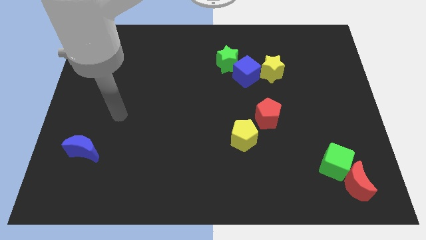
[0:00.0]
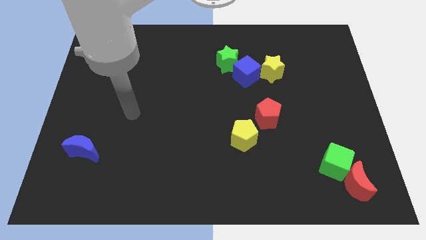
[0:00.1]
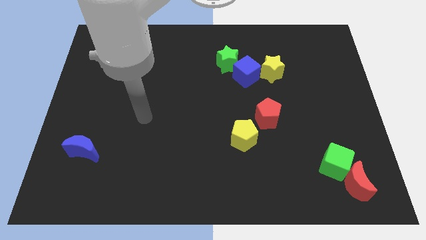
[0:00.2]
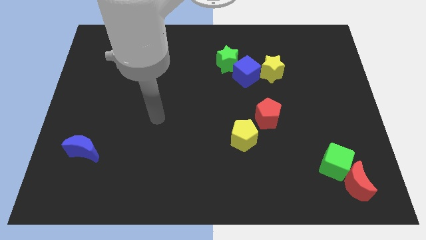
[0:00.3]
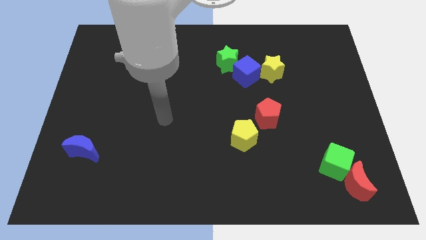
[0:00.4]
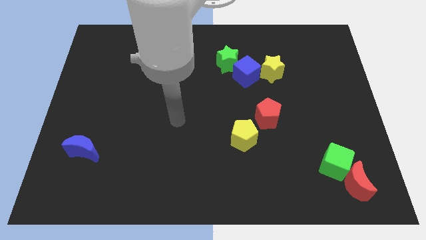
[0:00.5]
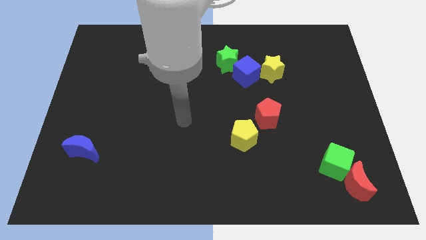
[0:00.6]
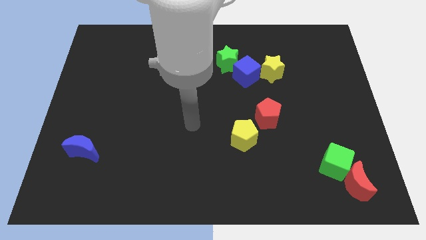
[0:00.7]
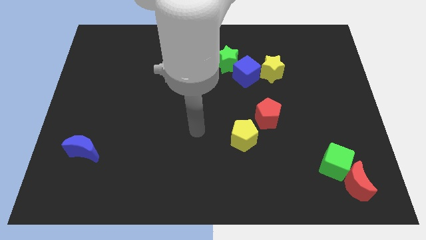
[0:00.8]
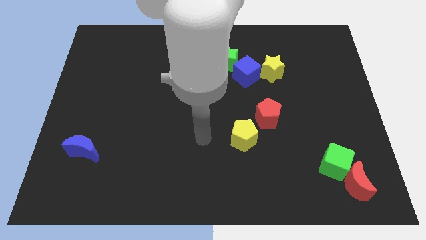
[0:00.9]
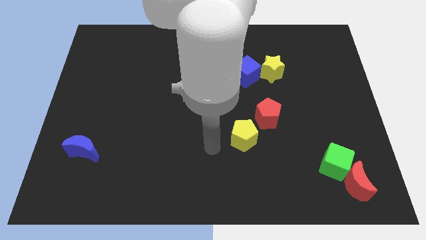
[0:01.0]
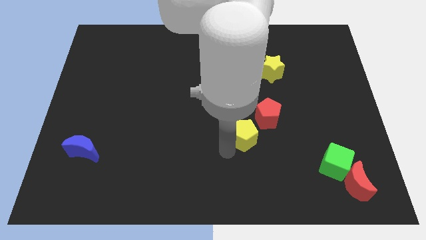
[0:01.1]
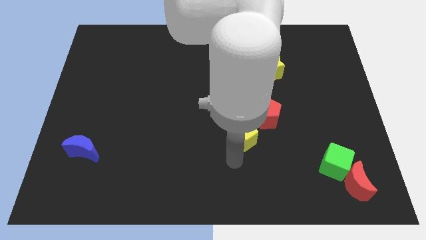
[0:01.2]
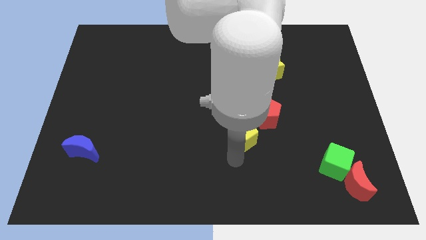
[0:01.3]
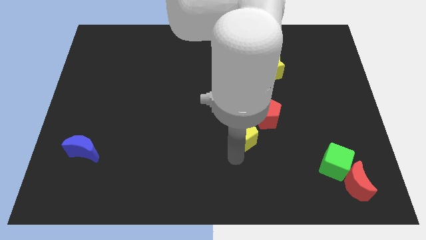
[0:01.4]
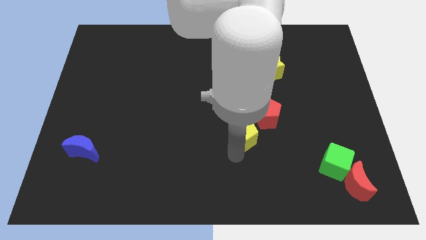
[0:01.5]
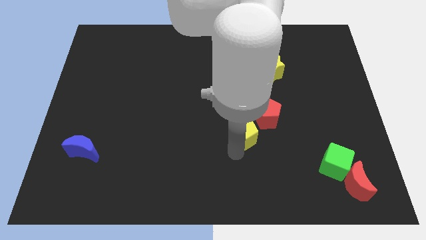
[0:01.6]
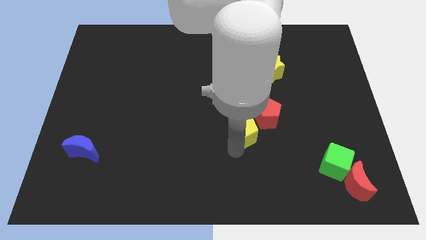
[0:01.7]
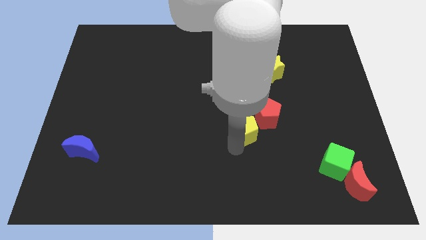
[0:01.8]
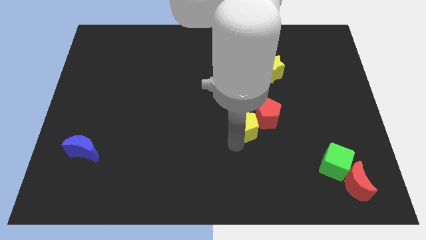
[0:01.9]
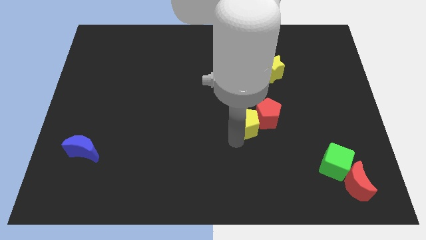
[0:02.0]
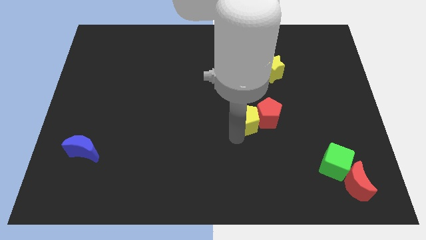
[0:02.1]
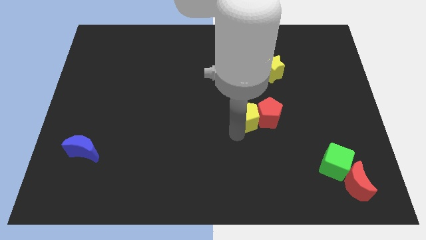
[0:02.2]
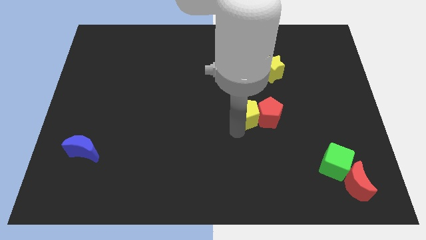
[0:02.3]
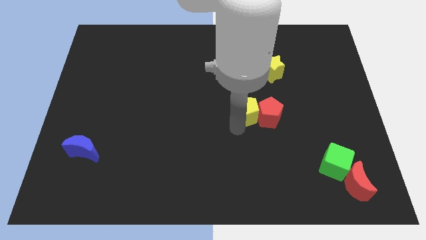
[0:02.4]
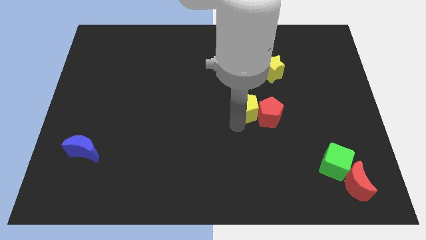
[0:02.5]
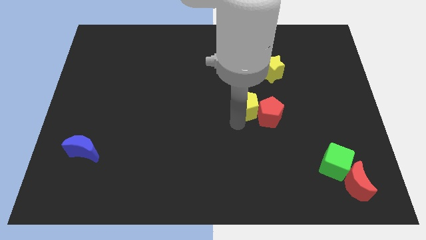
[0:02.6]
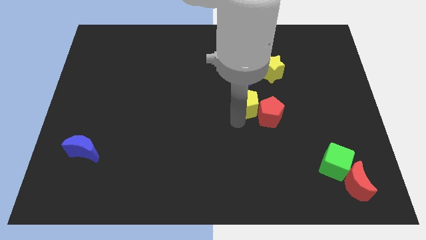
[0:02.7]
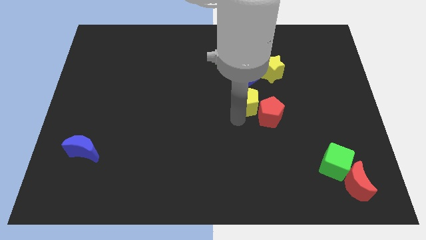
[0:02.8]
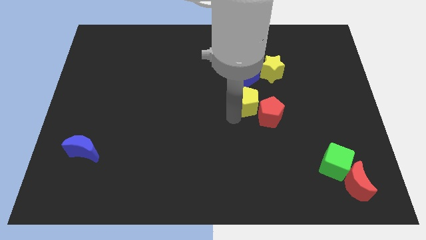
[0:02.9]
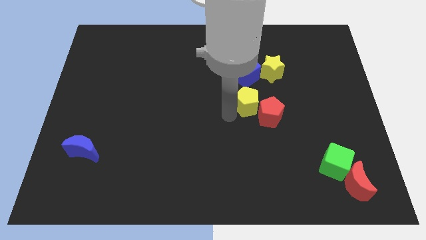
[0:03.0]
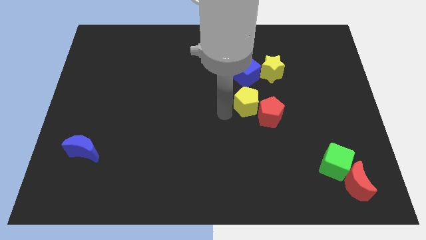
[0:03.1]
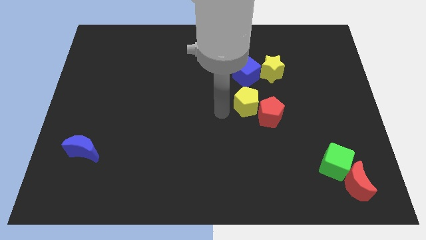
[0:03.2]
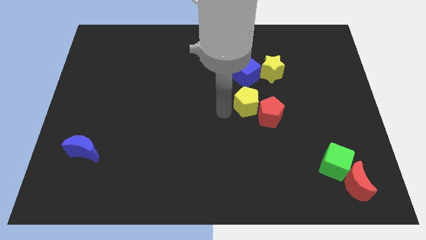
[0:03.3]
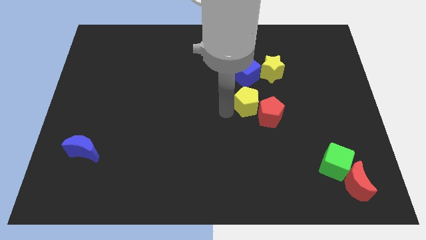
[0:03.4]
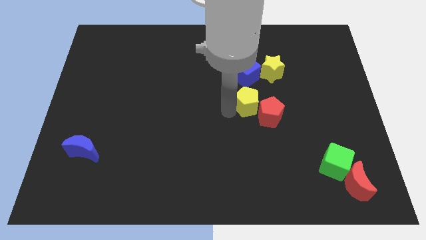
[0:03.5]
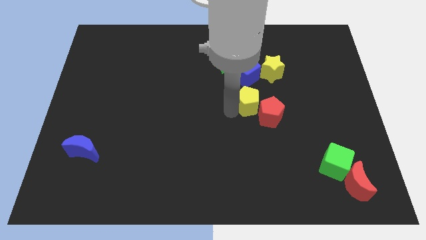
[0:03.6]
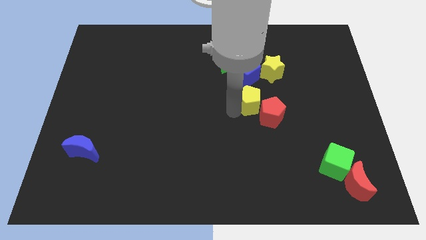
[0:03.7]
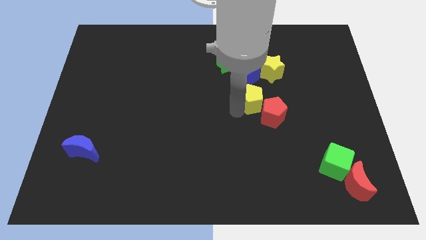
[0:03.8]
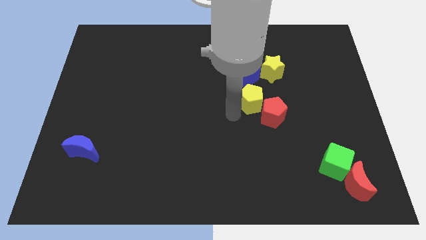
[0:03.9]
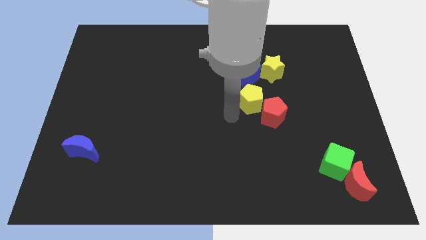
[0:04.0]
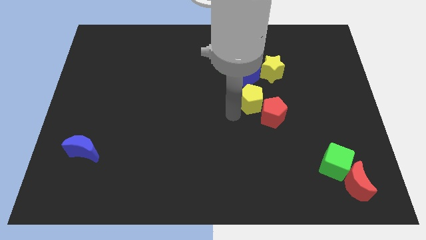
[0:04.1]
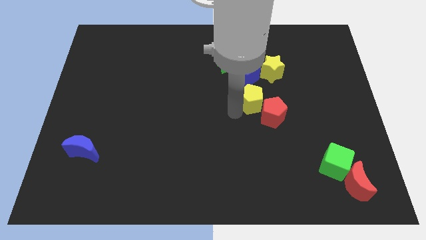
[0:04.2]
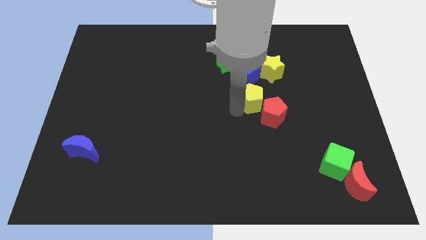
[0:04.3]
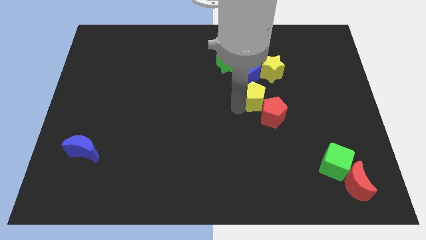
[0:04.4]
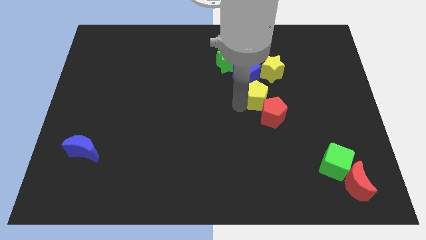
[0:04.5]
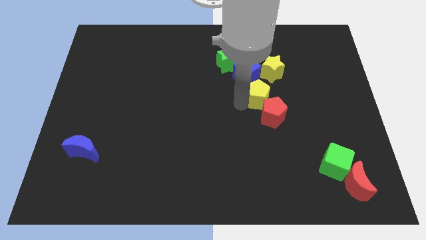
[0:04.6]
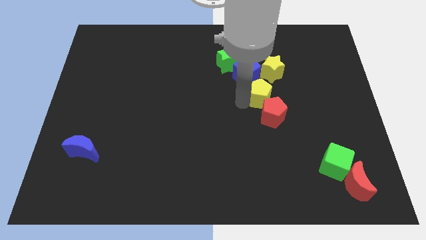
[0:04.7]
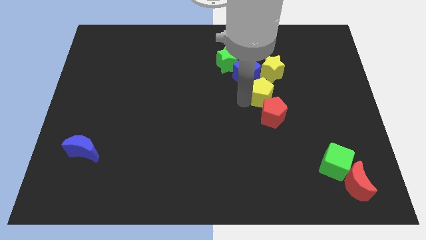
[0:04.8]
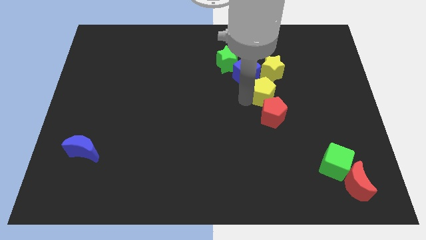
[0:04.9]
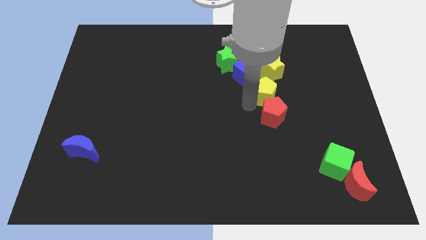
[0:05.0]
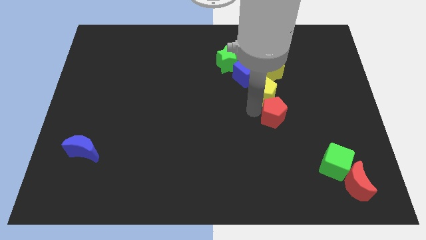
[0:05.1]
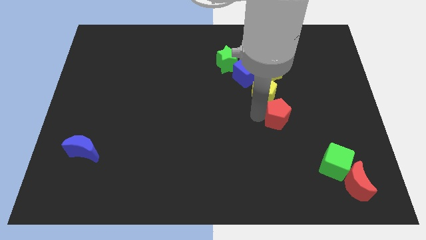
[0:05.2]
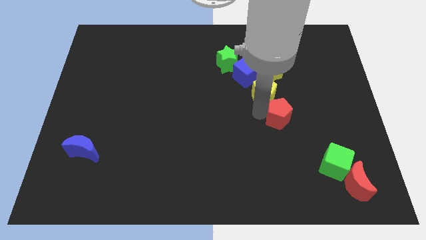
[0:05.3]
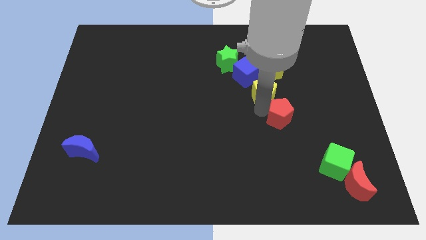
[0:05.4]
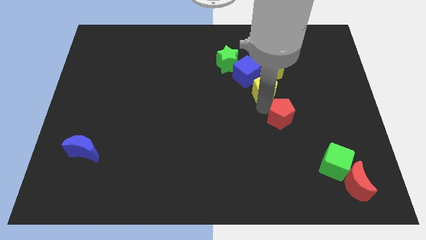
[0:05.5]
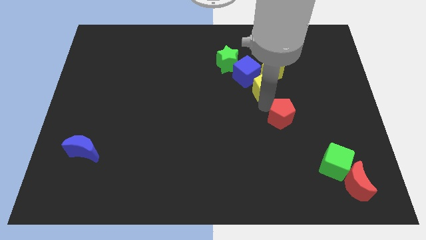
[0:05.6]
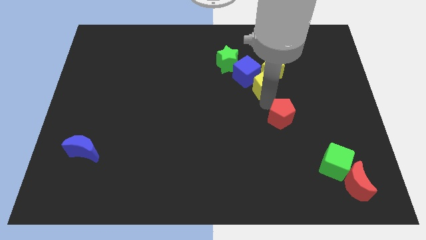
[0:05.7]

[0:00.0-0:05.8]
slide the yellow pentagon towards the yellow star

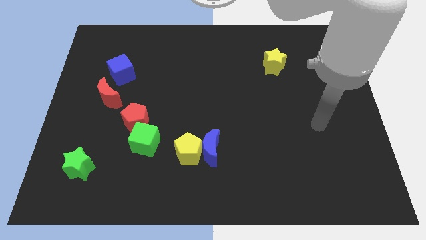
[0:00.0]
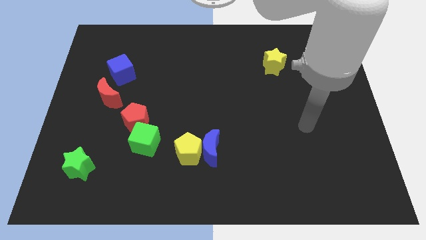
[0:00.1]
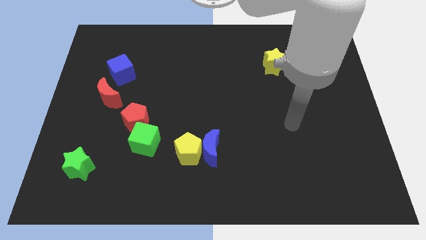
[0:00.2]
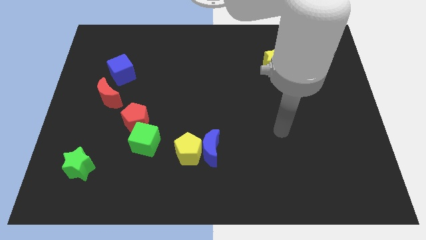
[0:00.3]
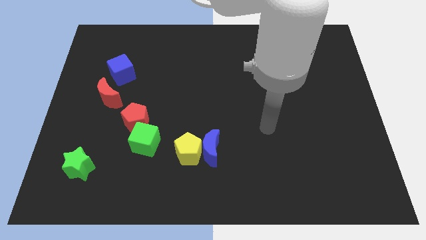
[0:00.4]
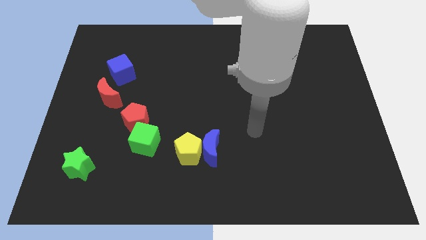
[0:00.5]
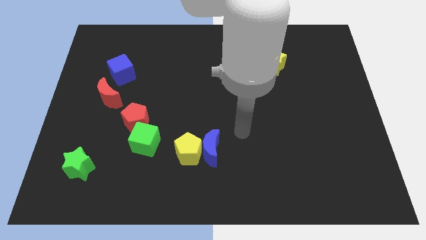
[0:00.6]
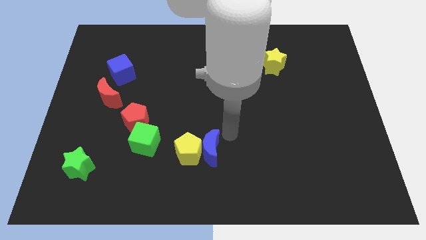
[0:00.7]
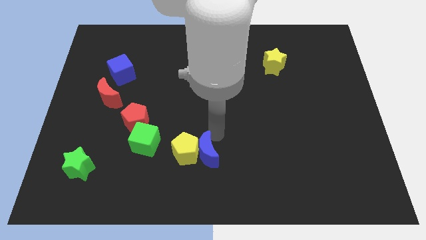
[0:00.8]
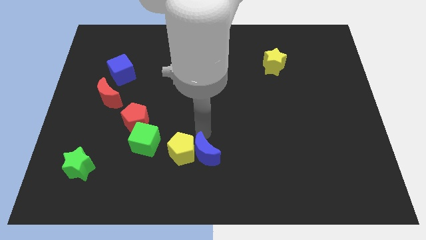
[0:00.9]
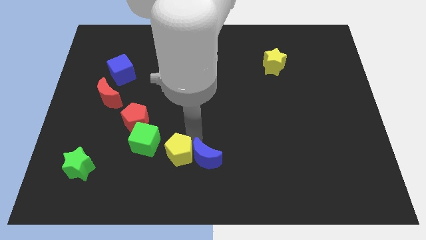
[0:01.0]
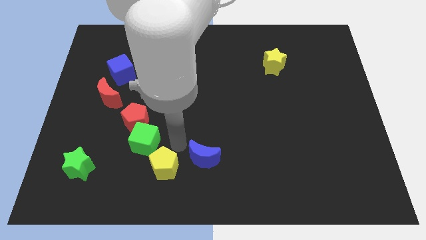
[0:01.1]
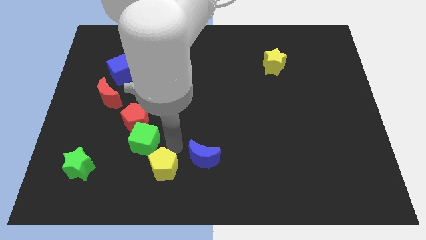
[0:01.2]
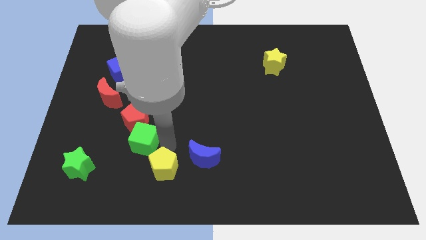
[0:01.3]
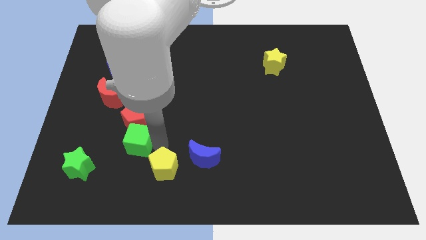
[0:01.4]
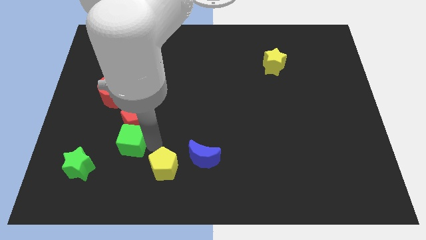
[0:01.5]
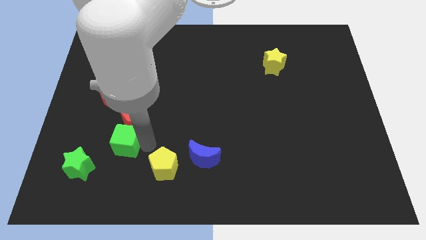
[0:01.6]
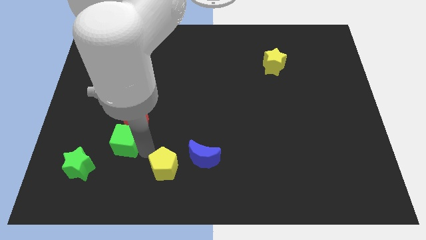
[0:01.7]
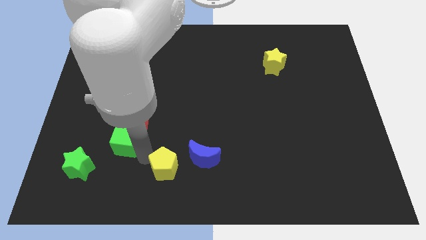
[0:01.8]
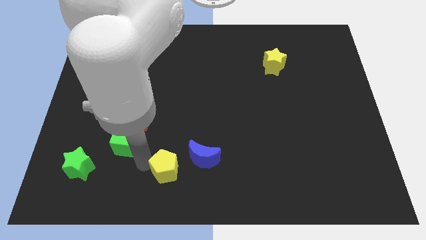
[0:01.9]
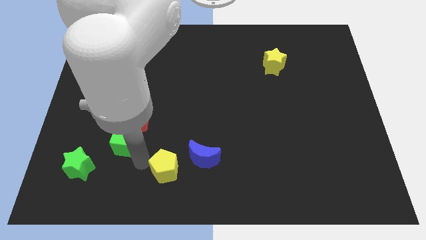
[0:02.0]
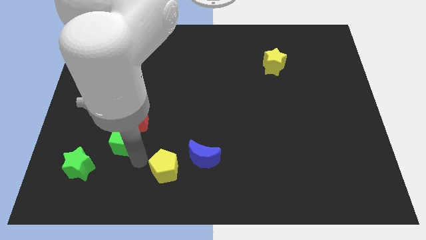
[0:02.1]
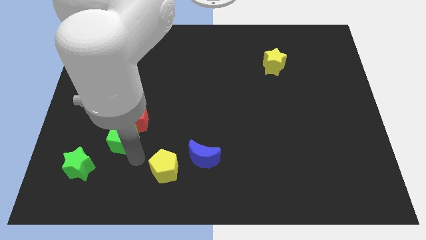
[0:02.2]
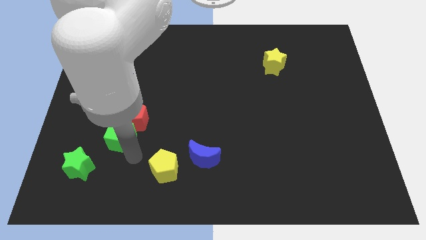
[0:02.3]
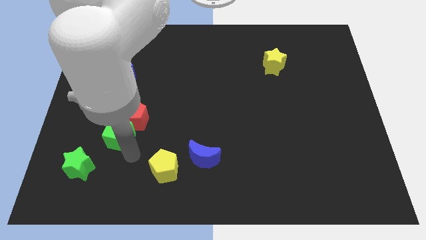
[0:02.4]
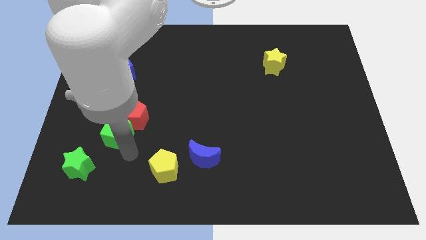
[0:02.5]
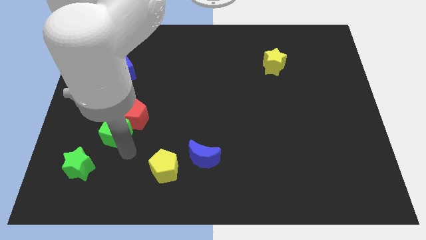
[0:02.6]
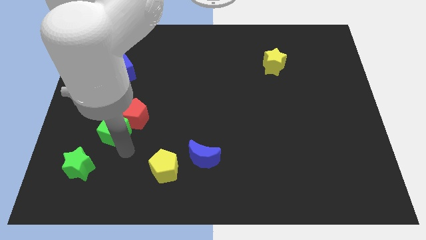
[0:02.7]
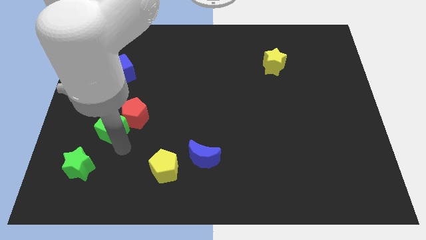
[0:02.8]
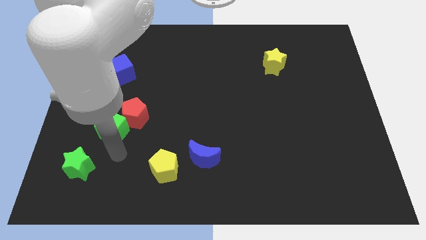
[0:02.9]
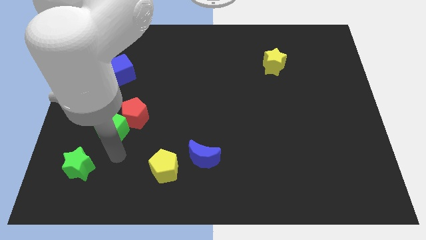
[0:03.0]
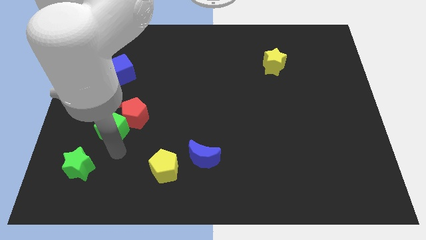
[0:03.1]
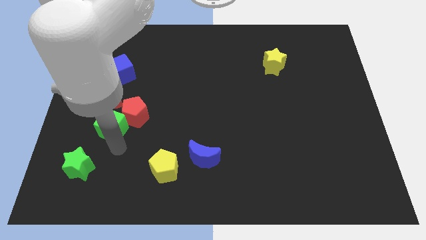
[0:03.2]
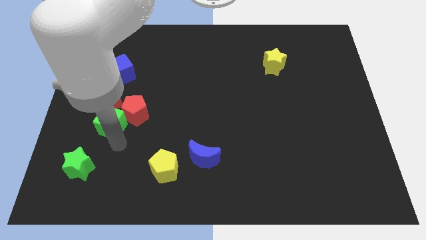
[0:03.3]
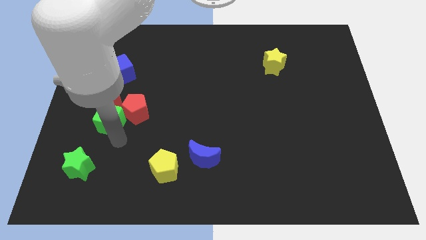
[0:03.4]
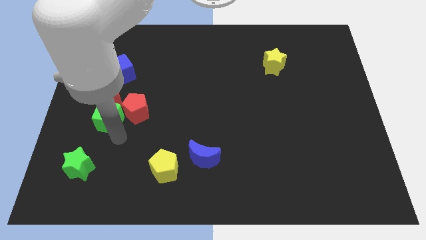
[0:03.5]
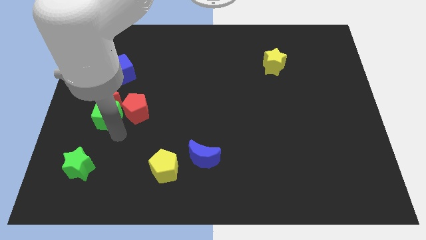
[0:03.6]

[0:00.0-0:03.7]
put the green cube towards the red moon
